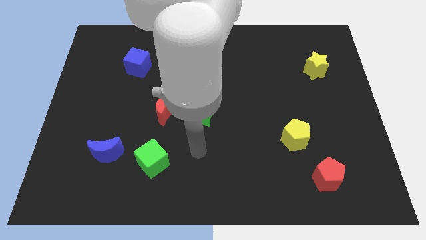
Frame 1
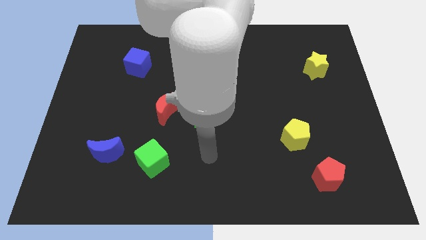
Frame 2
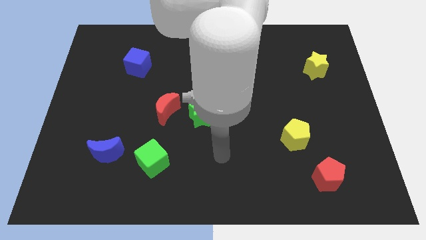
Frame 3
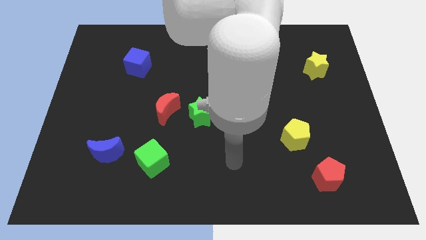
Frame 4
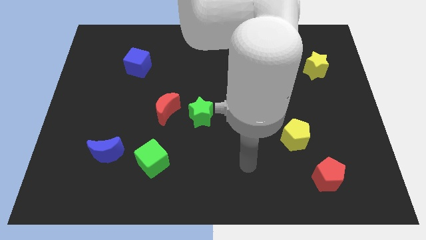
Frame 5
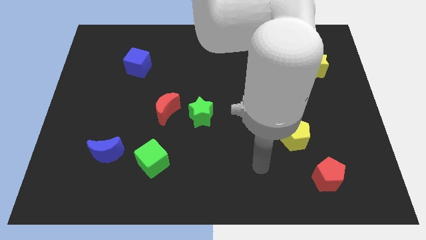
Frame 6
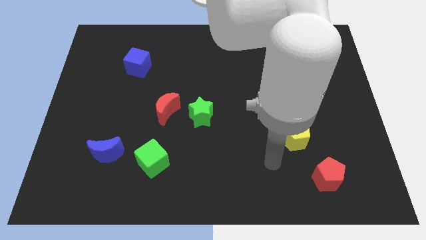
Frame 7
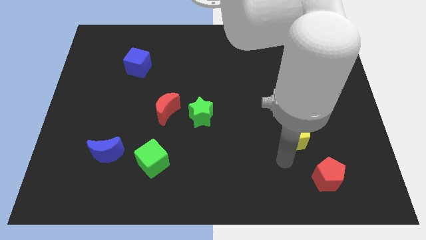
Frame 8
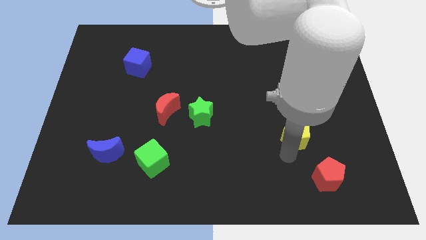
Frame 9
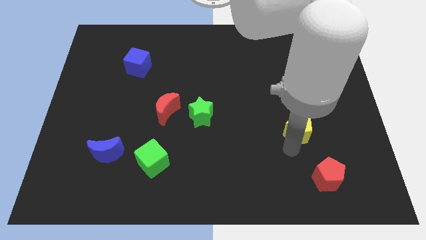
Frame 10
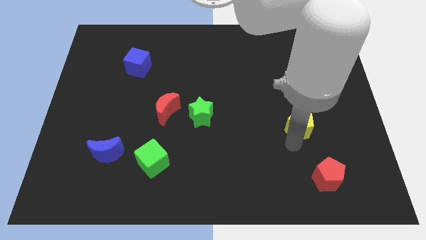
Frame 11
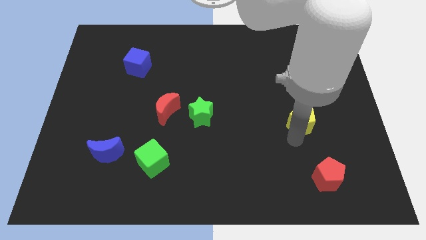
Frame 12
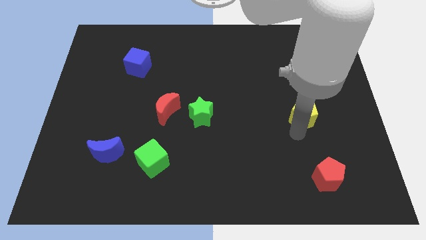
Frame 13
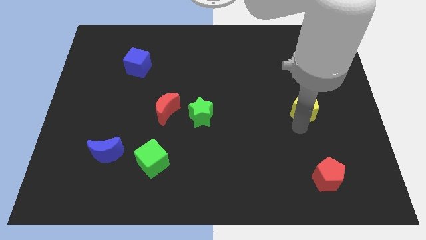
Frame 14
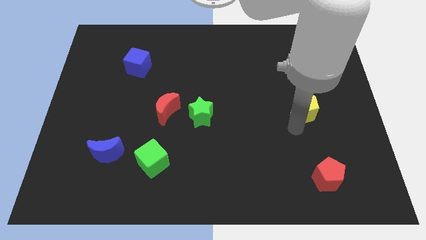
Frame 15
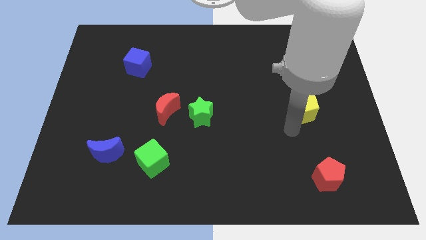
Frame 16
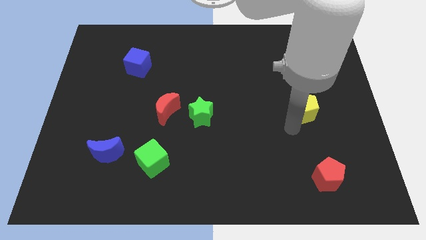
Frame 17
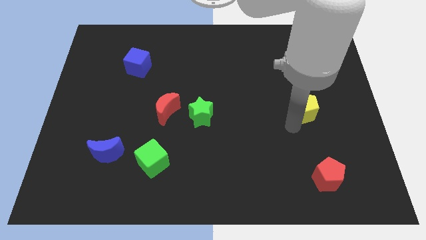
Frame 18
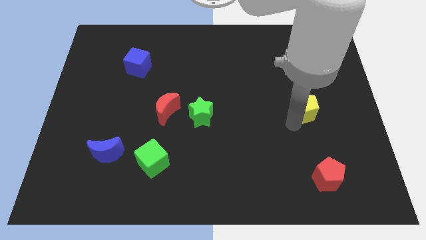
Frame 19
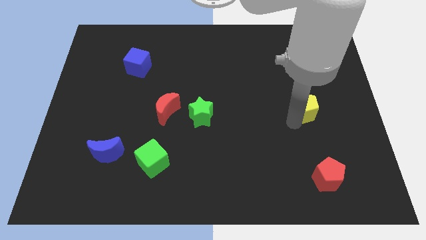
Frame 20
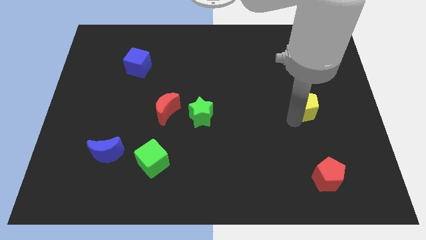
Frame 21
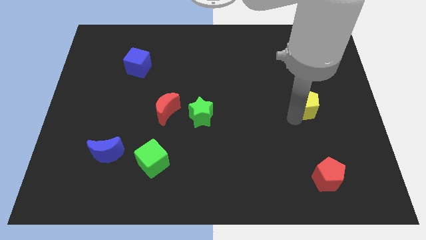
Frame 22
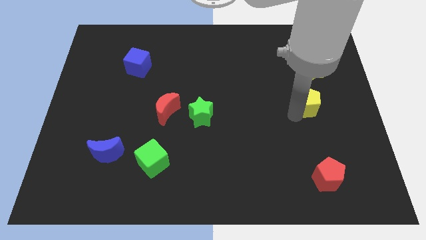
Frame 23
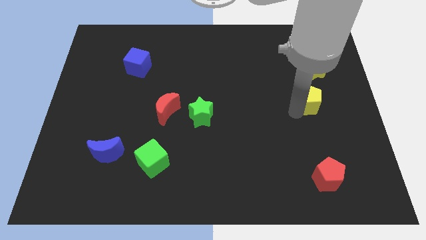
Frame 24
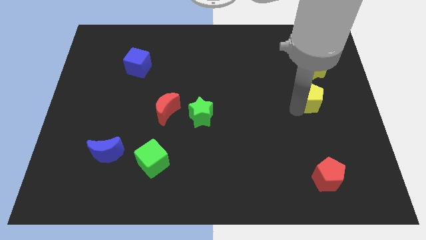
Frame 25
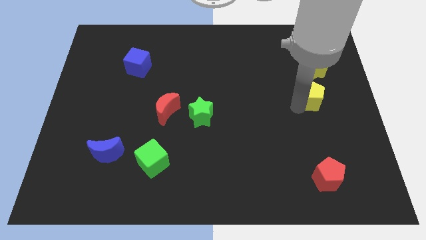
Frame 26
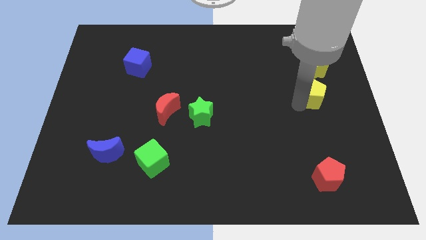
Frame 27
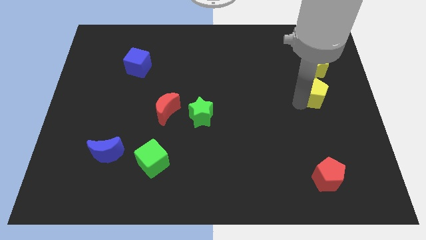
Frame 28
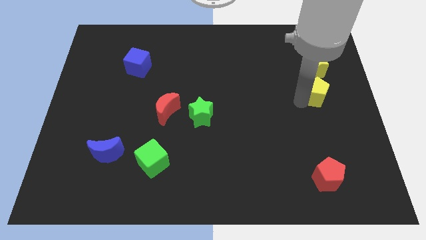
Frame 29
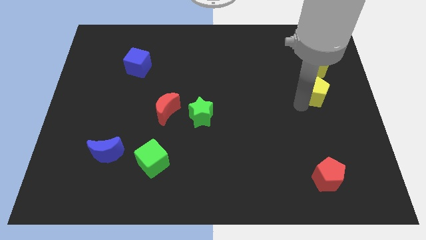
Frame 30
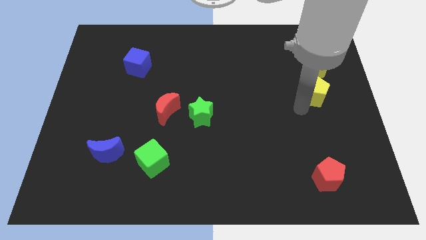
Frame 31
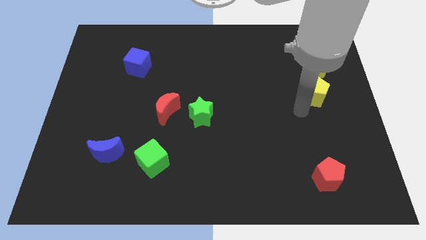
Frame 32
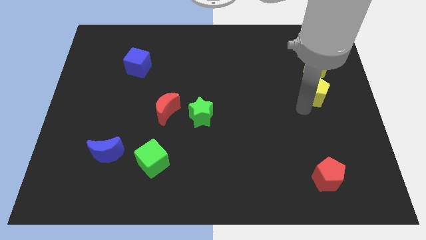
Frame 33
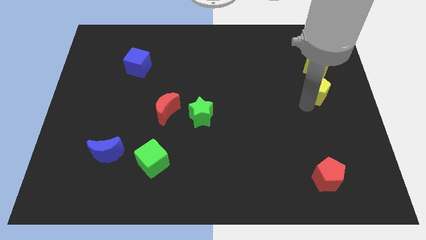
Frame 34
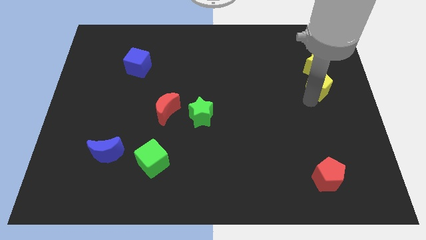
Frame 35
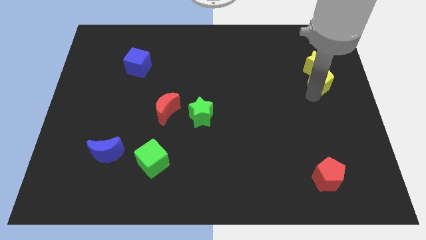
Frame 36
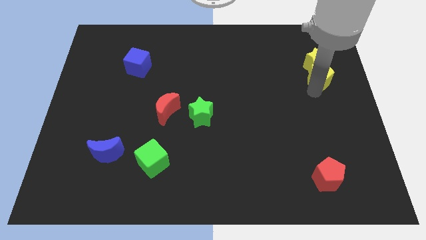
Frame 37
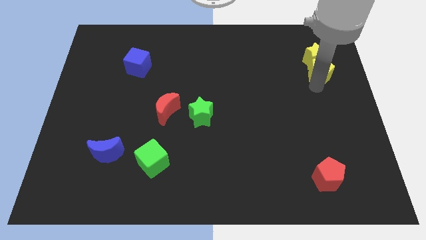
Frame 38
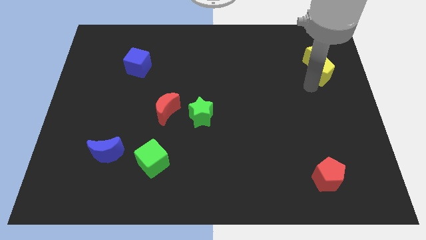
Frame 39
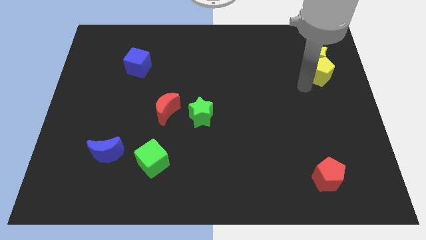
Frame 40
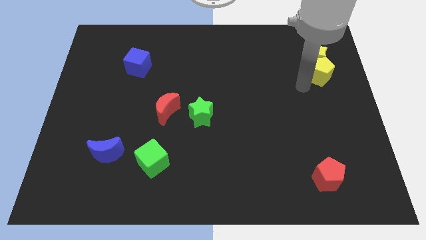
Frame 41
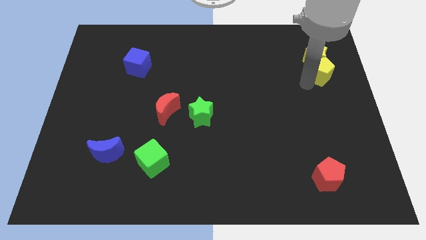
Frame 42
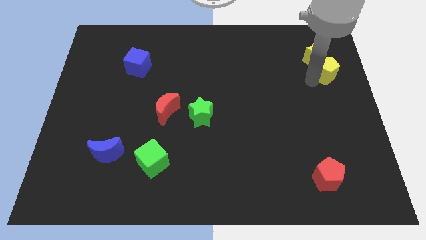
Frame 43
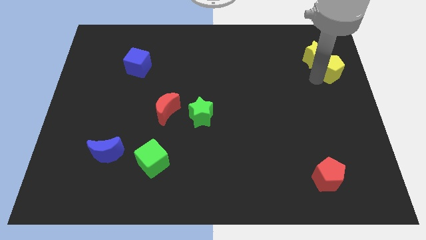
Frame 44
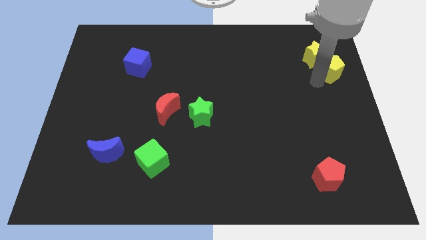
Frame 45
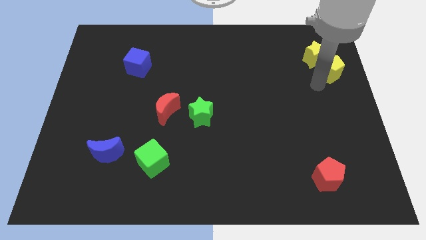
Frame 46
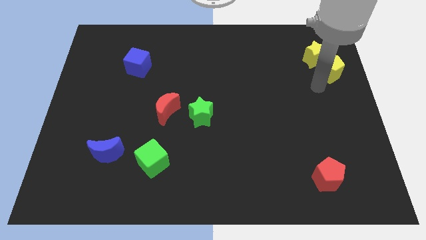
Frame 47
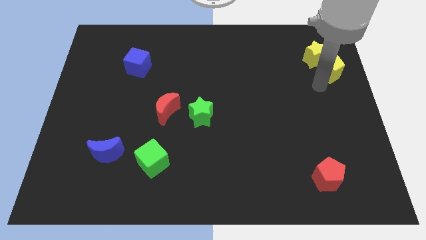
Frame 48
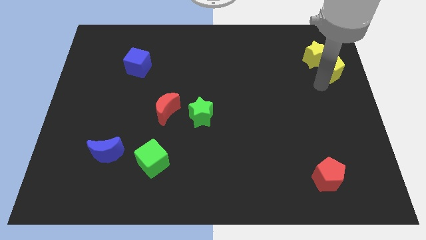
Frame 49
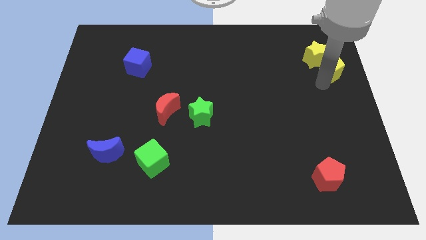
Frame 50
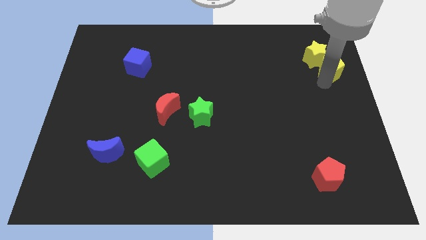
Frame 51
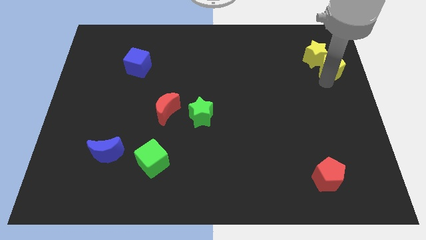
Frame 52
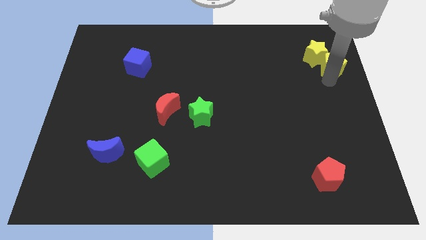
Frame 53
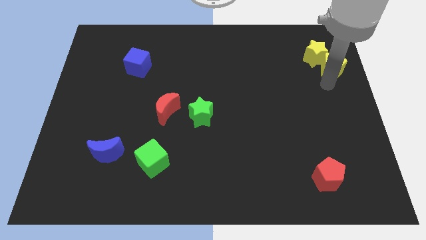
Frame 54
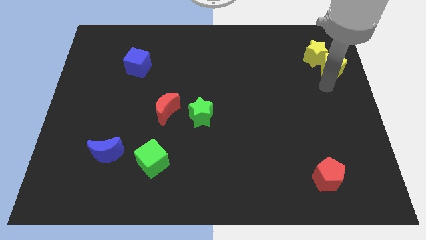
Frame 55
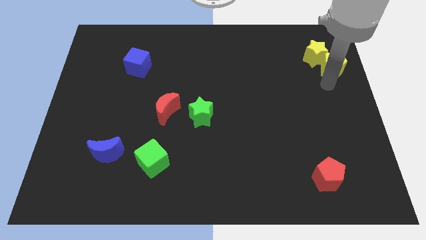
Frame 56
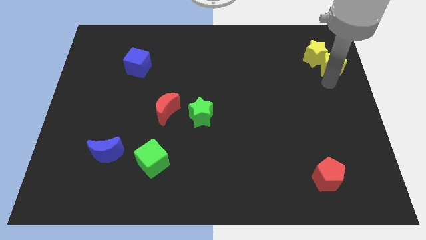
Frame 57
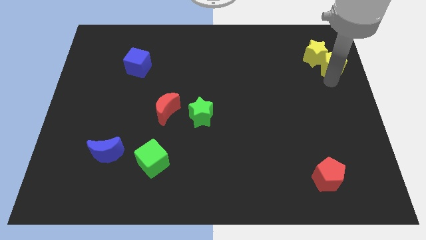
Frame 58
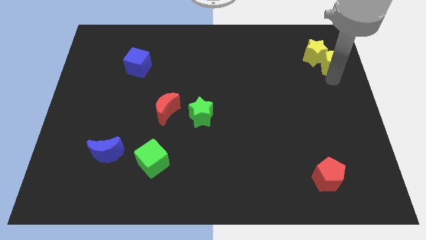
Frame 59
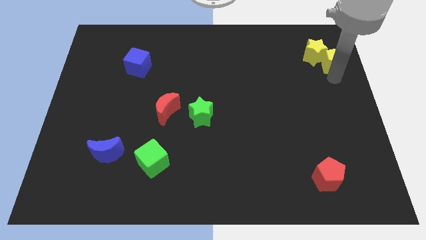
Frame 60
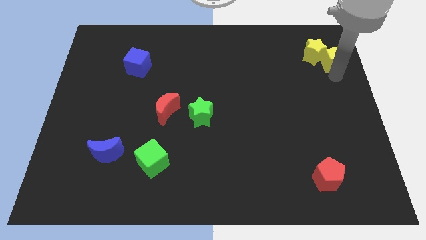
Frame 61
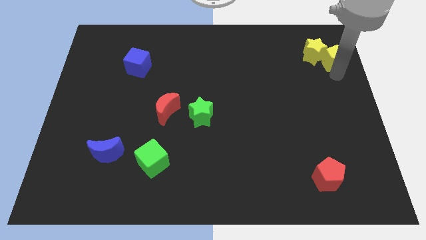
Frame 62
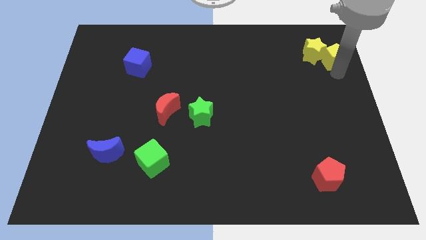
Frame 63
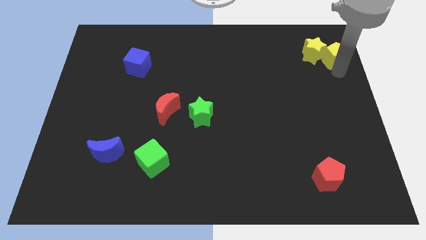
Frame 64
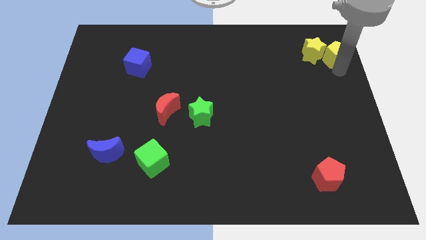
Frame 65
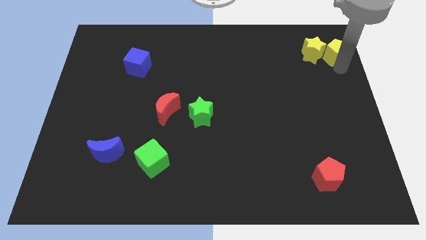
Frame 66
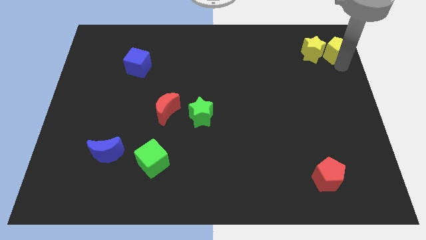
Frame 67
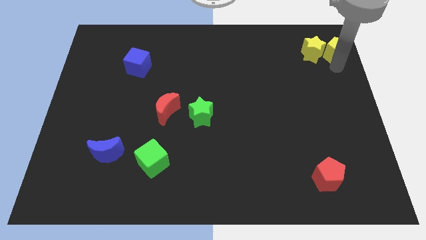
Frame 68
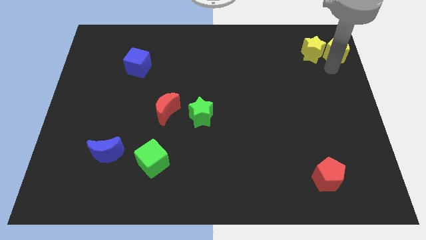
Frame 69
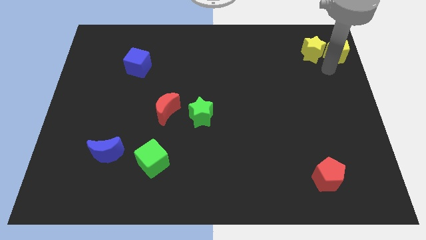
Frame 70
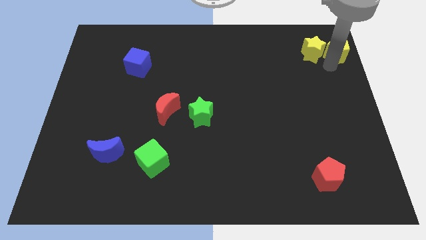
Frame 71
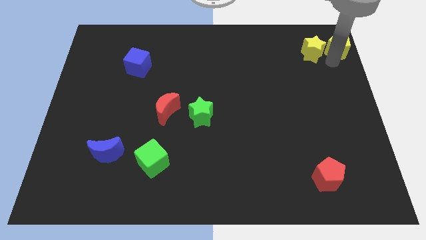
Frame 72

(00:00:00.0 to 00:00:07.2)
push the yellow pentagon to the top right
